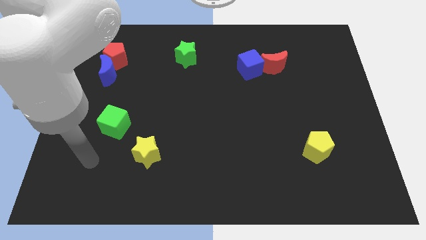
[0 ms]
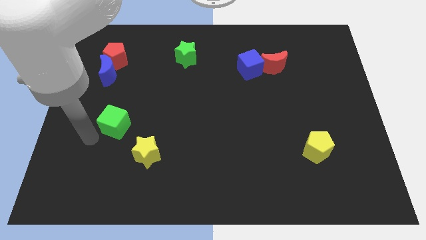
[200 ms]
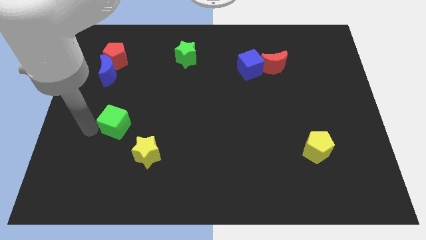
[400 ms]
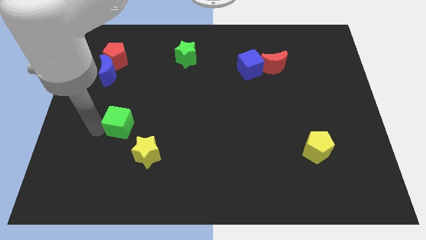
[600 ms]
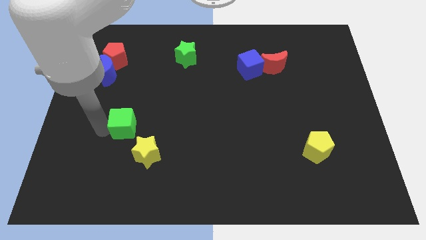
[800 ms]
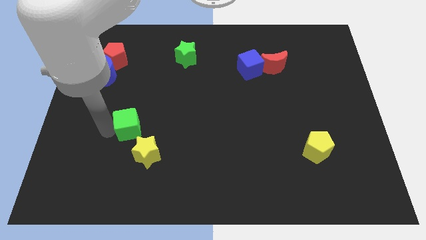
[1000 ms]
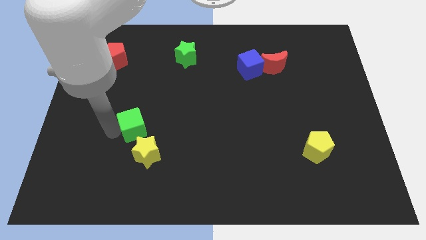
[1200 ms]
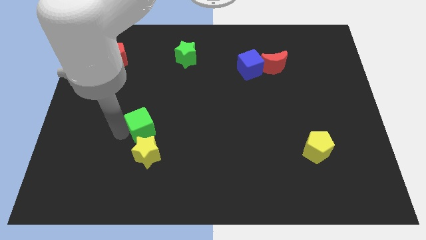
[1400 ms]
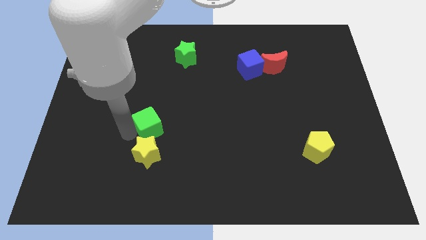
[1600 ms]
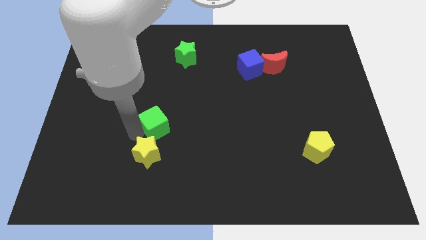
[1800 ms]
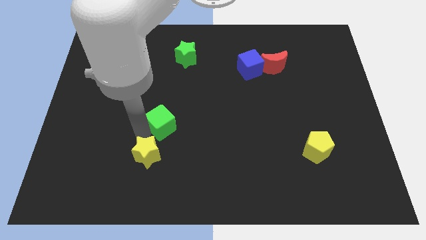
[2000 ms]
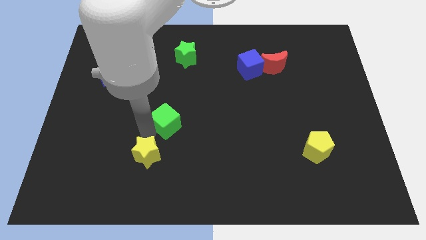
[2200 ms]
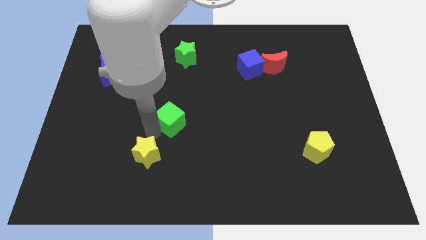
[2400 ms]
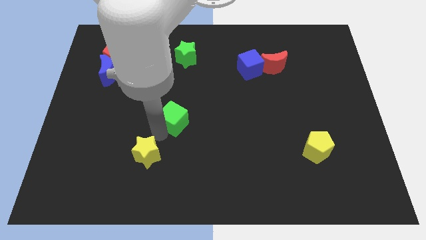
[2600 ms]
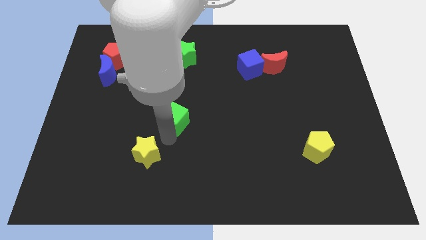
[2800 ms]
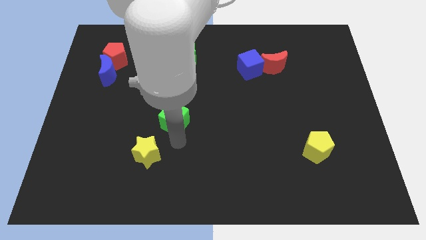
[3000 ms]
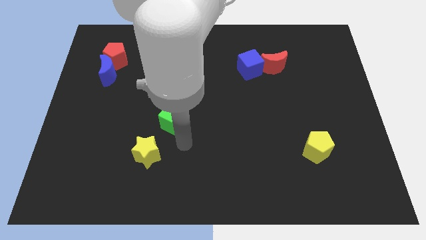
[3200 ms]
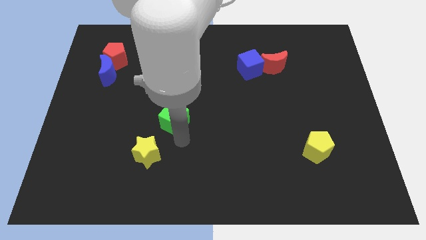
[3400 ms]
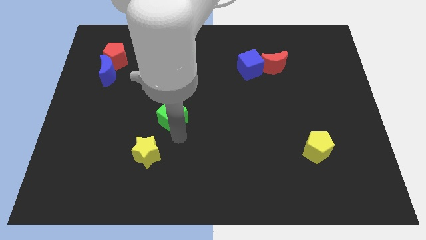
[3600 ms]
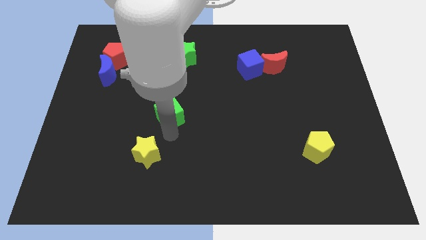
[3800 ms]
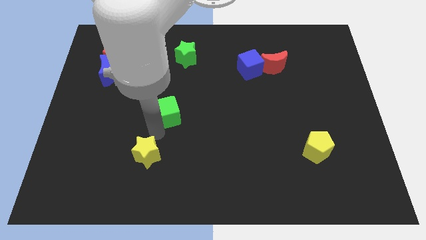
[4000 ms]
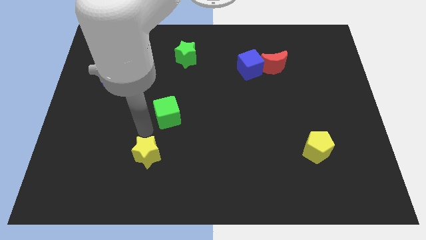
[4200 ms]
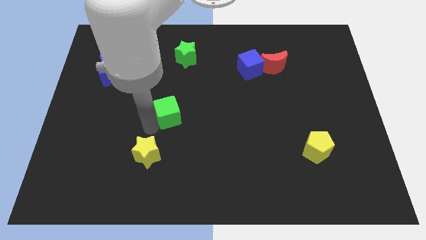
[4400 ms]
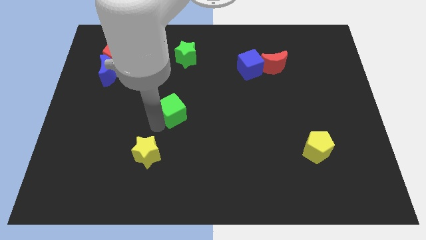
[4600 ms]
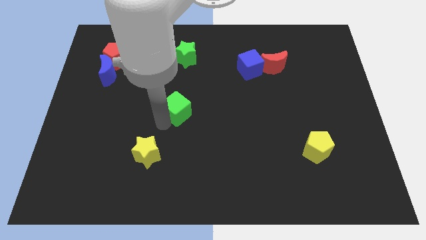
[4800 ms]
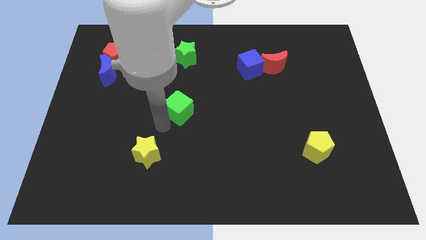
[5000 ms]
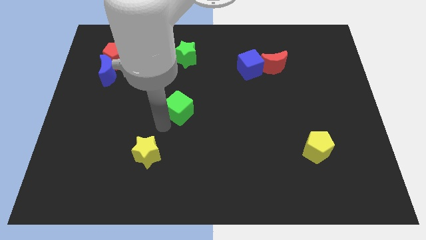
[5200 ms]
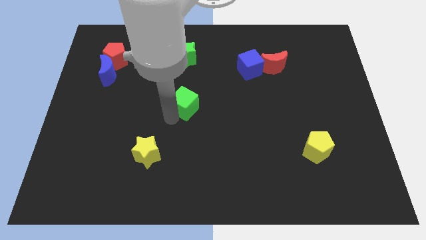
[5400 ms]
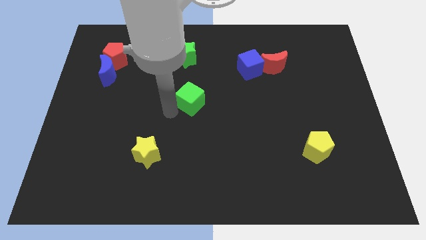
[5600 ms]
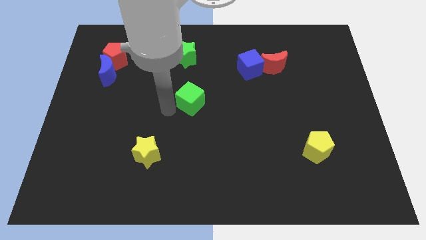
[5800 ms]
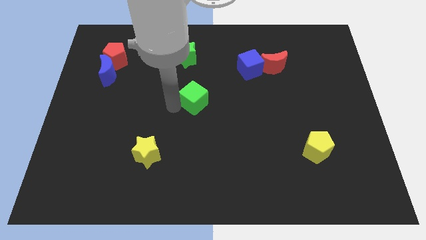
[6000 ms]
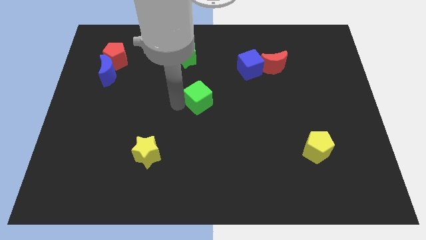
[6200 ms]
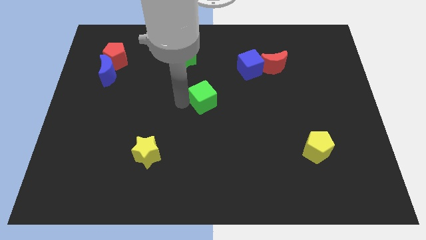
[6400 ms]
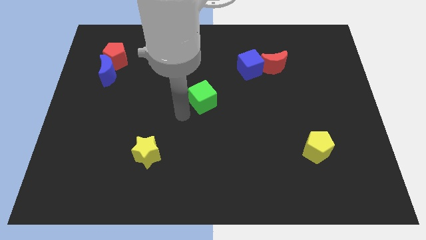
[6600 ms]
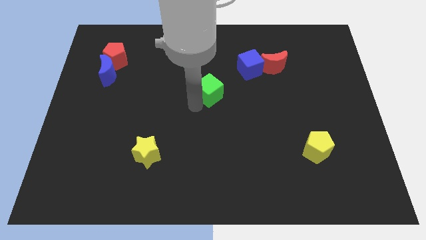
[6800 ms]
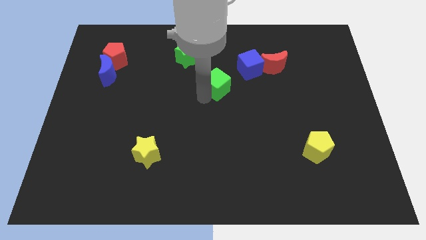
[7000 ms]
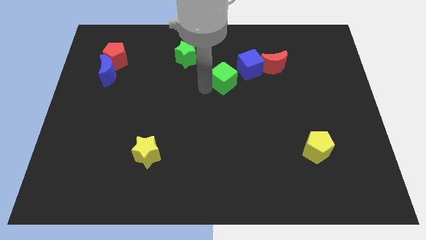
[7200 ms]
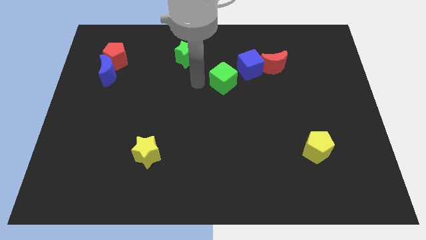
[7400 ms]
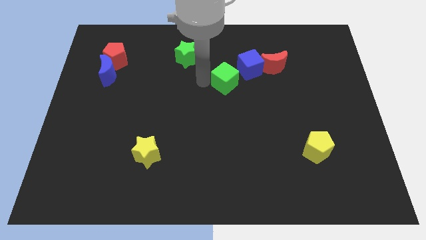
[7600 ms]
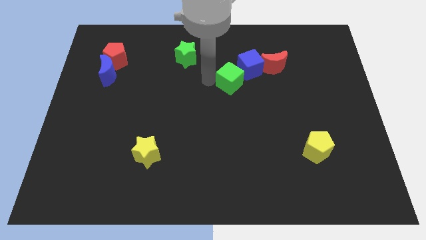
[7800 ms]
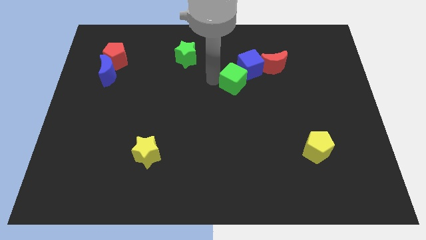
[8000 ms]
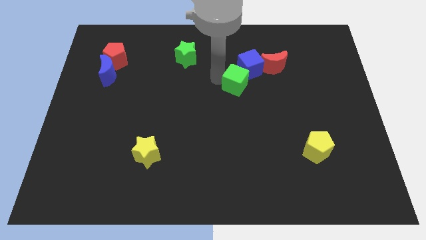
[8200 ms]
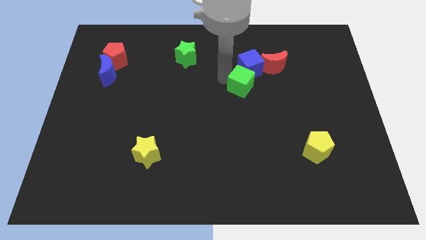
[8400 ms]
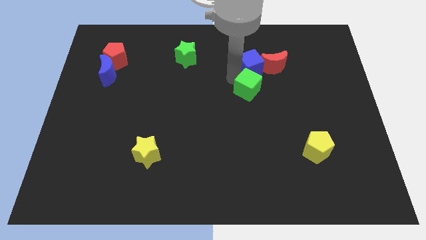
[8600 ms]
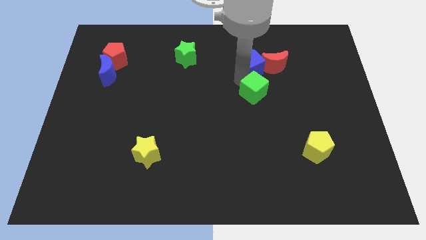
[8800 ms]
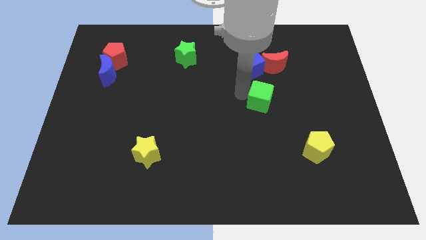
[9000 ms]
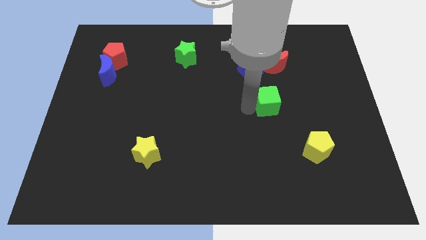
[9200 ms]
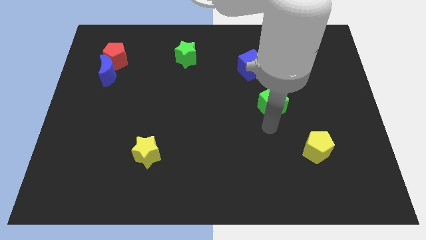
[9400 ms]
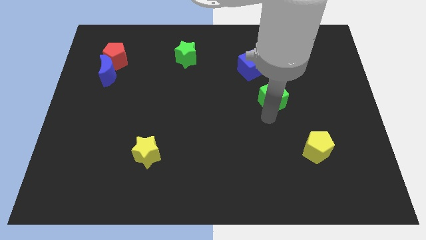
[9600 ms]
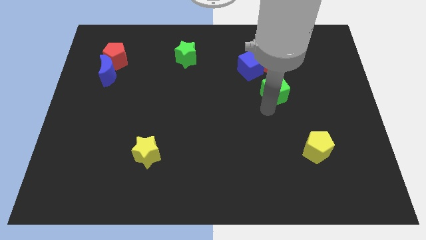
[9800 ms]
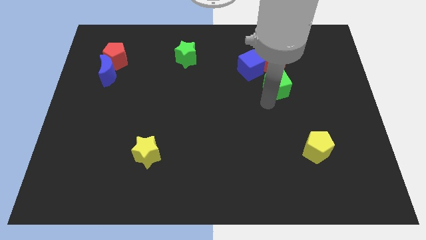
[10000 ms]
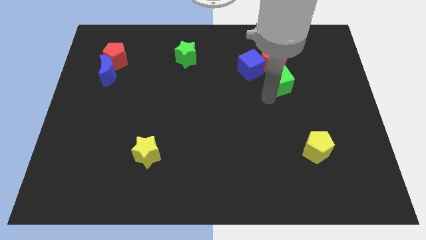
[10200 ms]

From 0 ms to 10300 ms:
slide the green cube towards the red moon

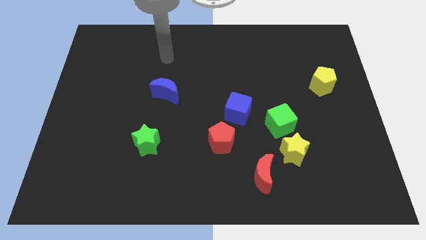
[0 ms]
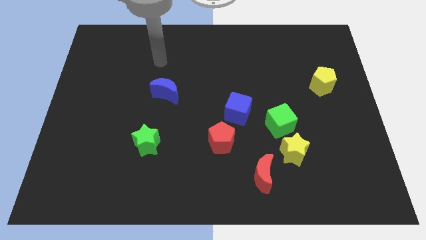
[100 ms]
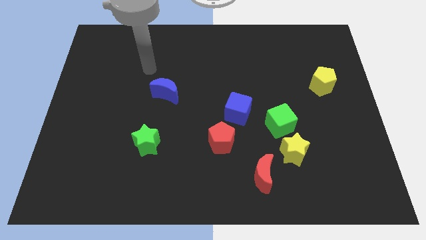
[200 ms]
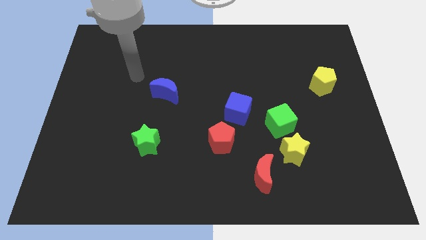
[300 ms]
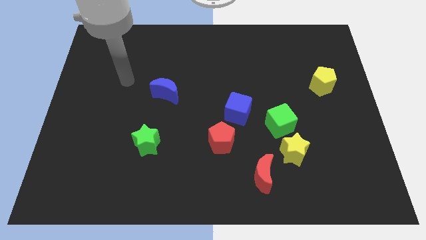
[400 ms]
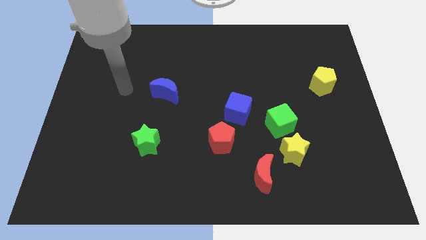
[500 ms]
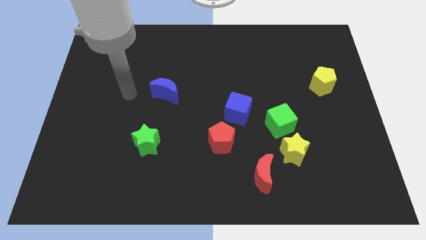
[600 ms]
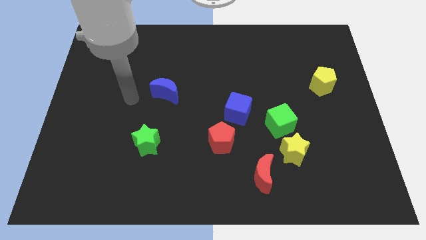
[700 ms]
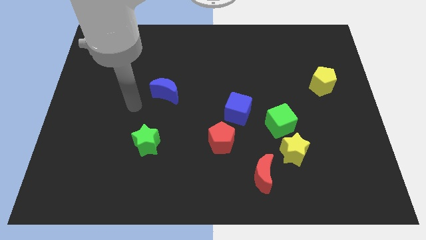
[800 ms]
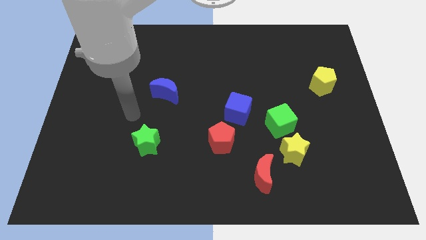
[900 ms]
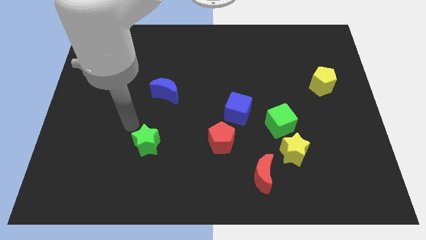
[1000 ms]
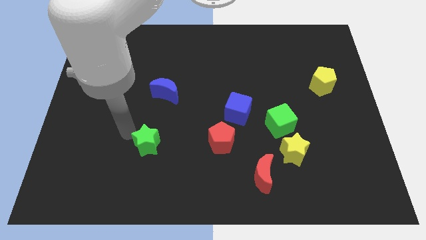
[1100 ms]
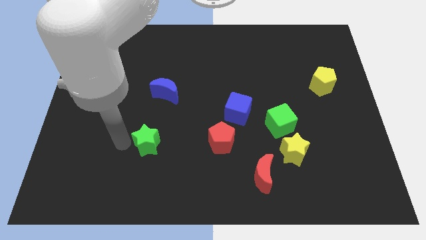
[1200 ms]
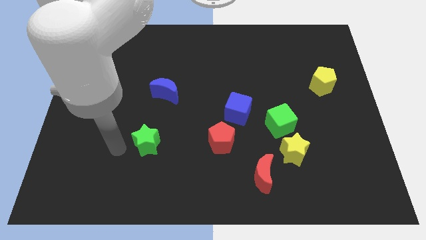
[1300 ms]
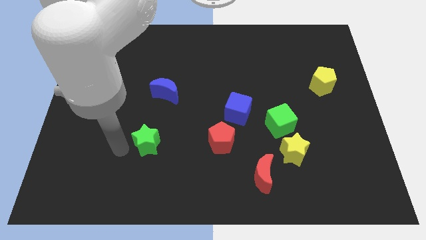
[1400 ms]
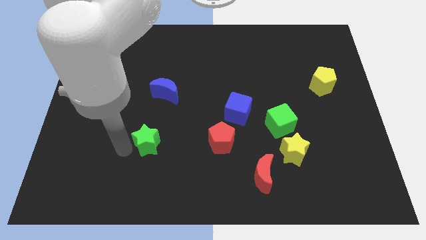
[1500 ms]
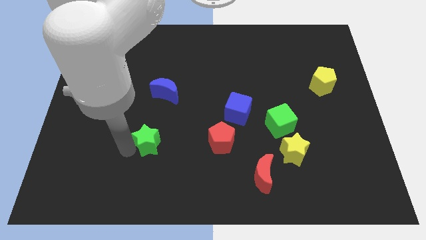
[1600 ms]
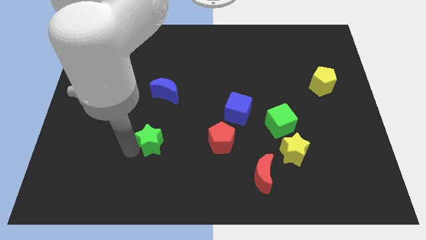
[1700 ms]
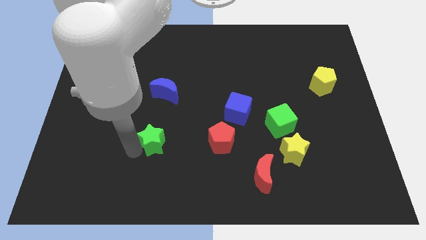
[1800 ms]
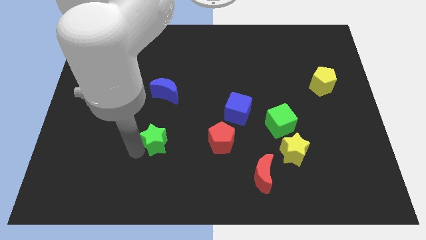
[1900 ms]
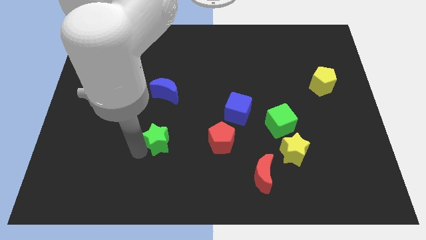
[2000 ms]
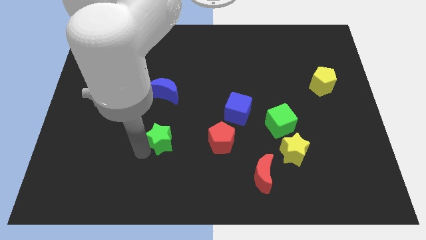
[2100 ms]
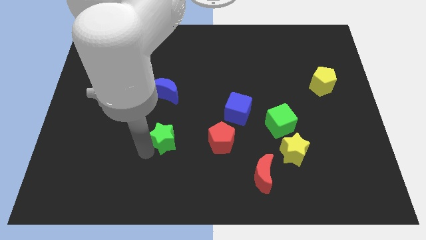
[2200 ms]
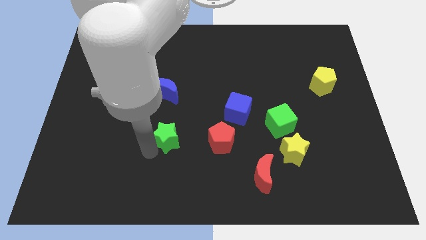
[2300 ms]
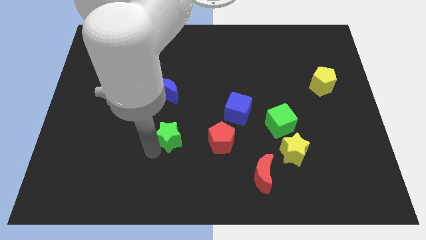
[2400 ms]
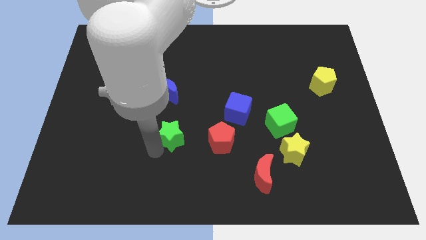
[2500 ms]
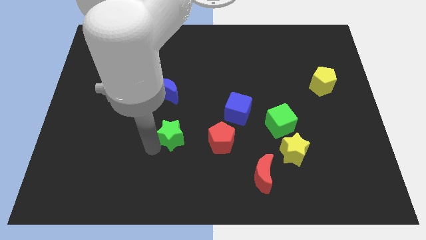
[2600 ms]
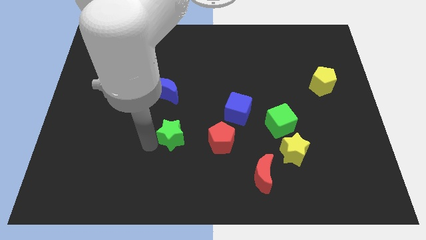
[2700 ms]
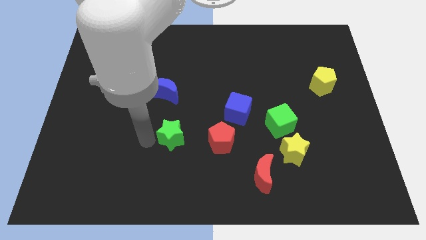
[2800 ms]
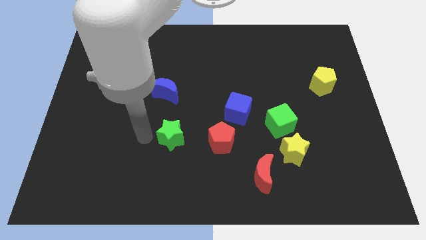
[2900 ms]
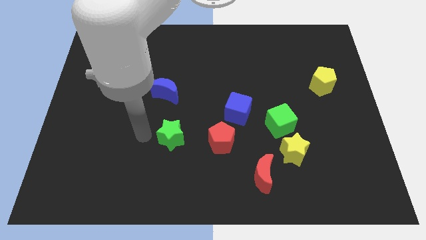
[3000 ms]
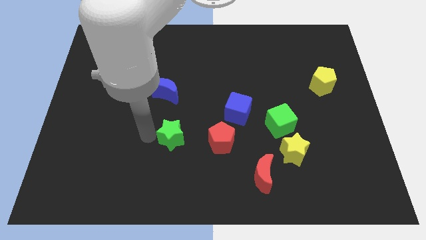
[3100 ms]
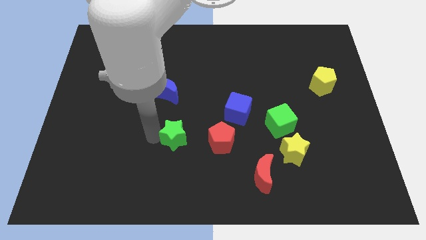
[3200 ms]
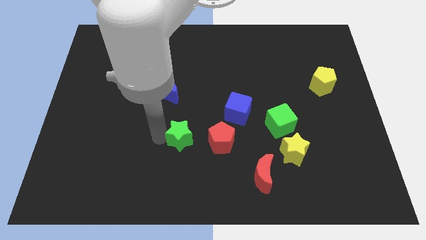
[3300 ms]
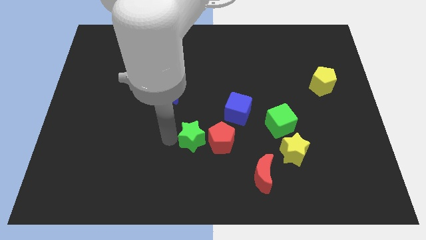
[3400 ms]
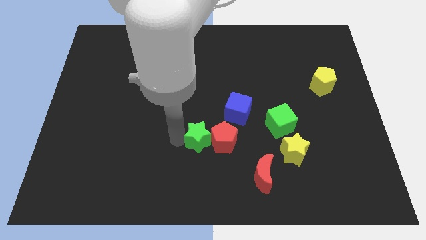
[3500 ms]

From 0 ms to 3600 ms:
slide the green star towards the red pentagon
